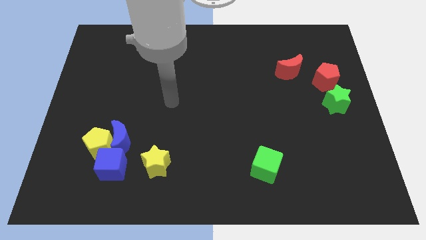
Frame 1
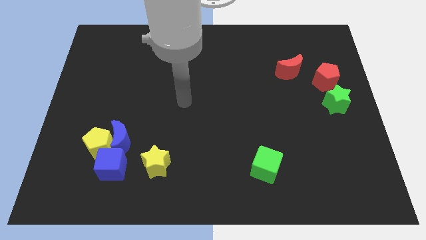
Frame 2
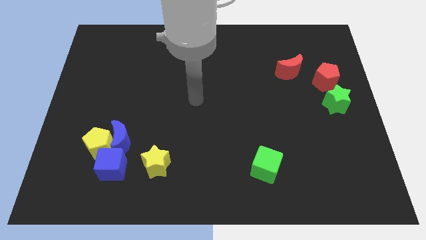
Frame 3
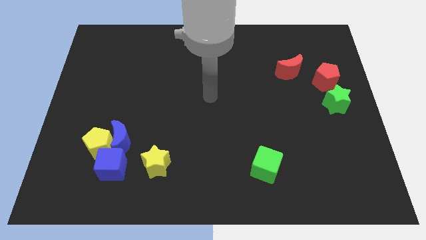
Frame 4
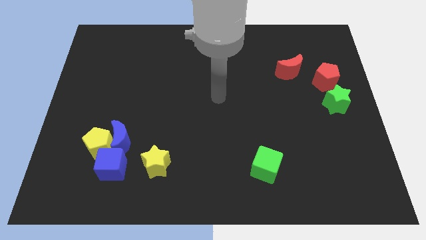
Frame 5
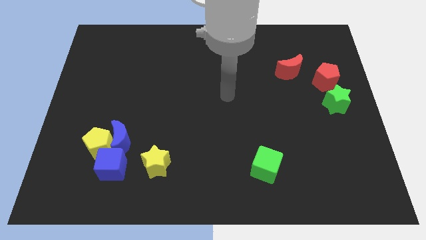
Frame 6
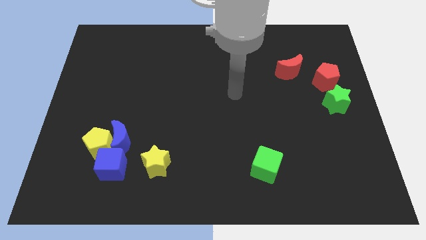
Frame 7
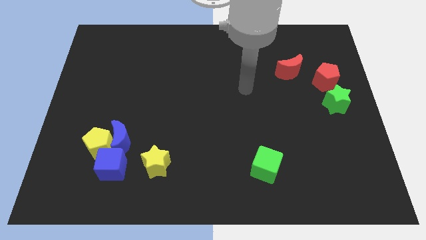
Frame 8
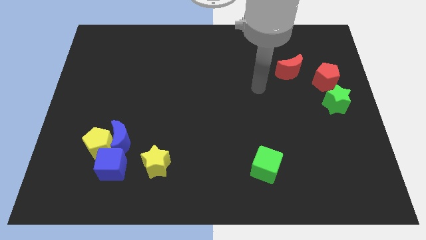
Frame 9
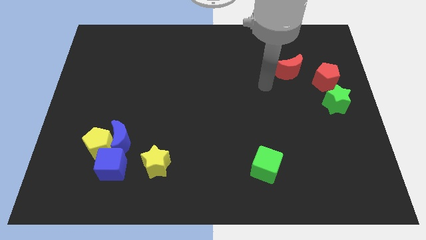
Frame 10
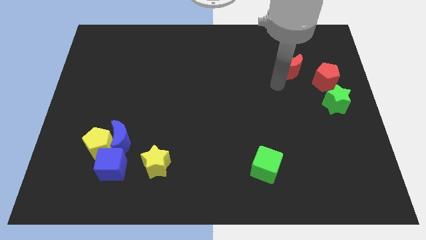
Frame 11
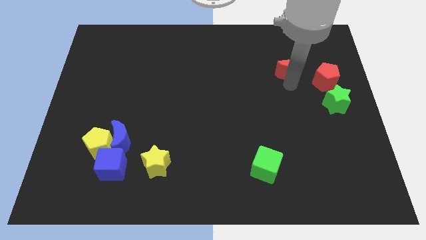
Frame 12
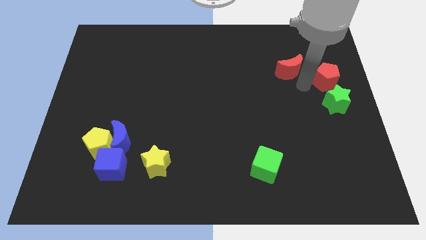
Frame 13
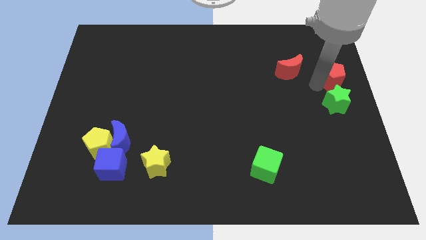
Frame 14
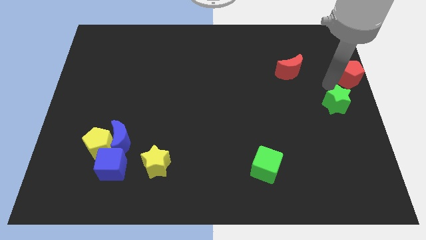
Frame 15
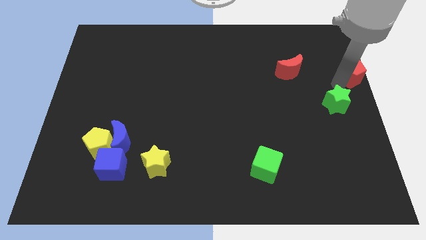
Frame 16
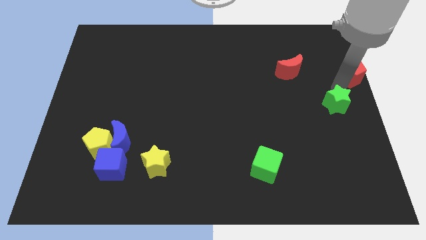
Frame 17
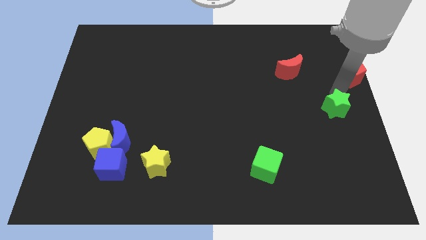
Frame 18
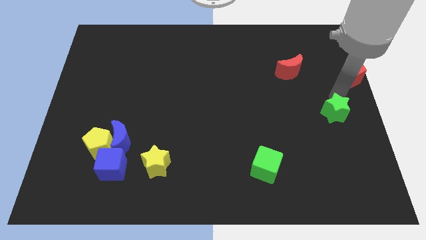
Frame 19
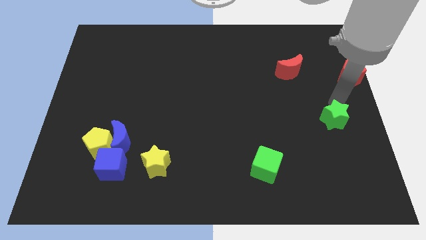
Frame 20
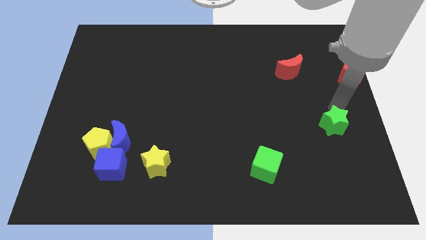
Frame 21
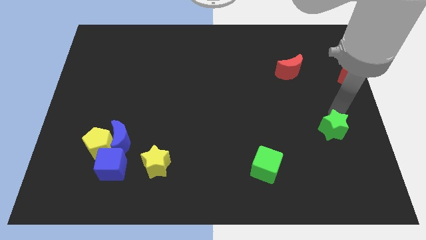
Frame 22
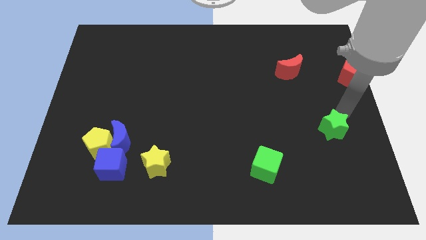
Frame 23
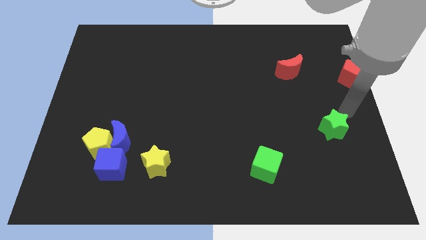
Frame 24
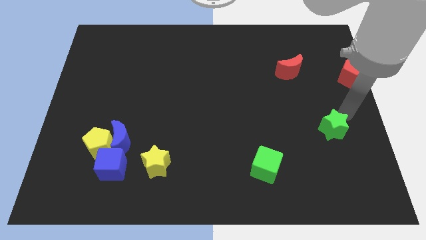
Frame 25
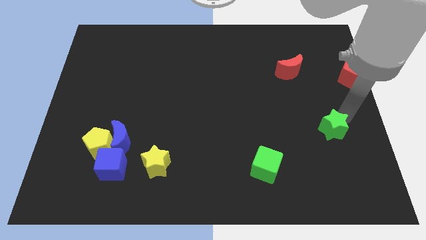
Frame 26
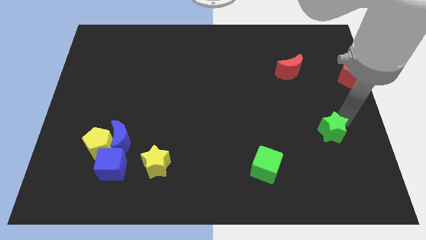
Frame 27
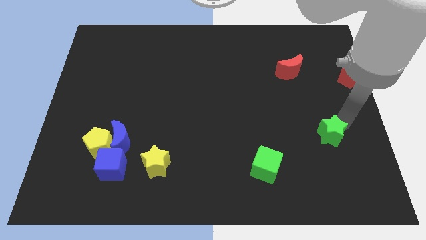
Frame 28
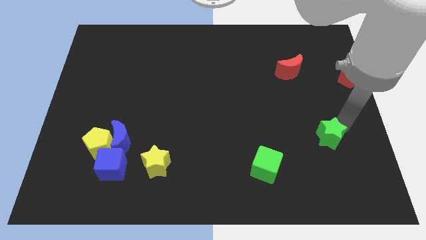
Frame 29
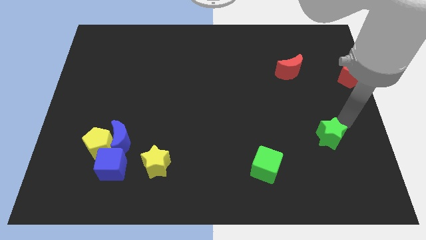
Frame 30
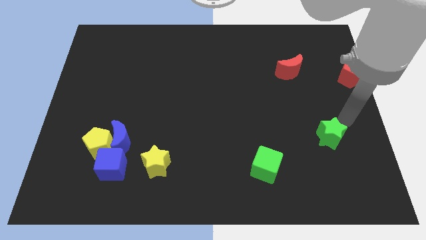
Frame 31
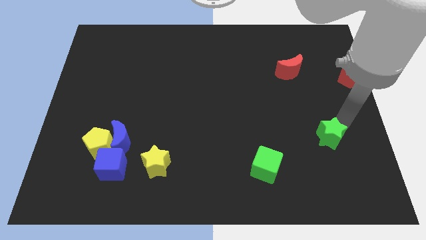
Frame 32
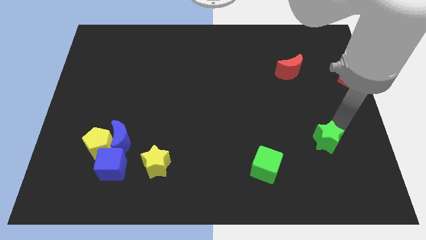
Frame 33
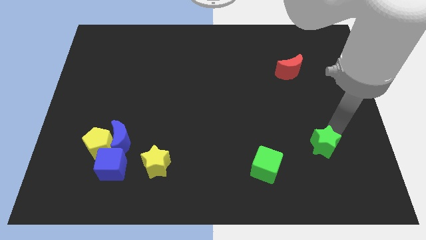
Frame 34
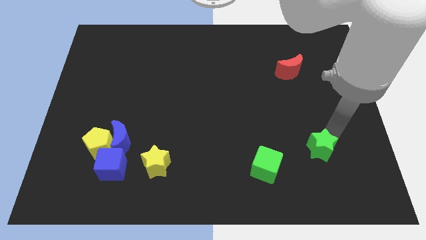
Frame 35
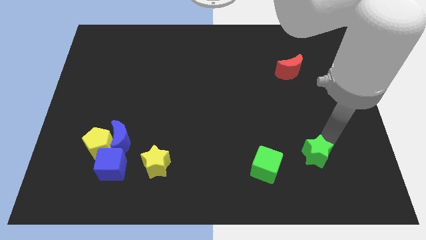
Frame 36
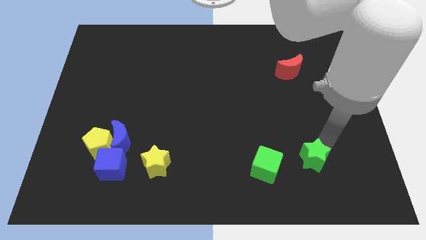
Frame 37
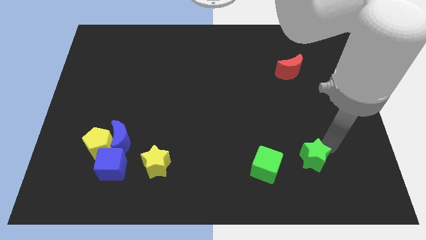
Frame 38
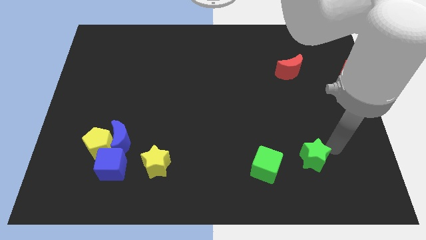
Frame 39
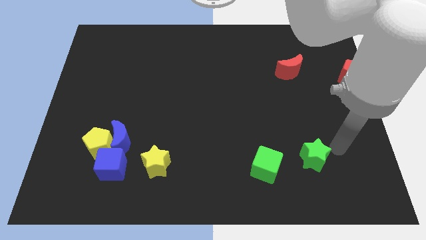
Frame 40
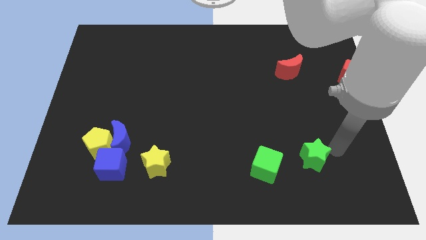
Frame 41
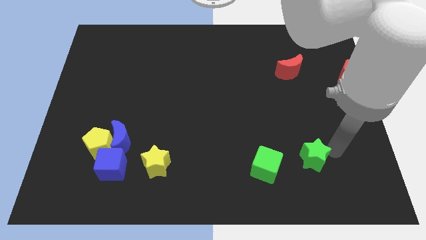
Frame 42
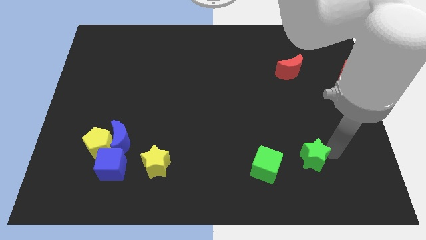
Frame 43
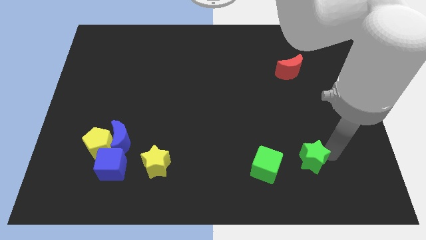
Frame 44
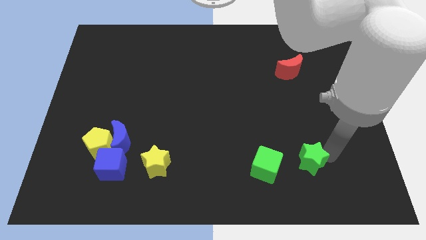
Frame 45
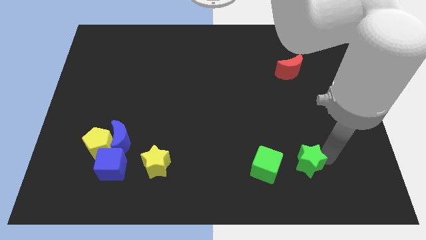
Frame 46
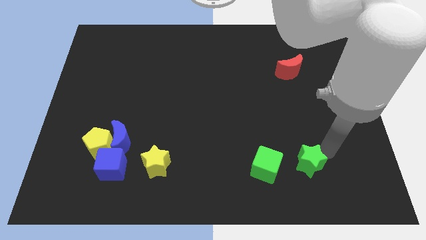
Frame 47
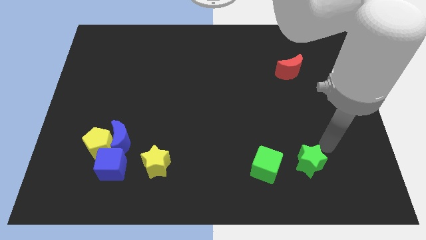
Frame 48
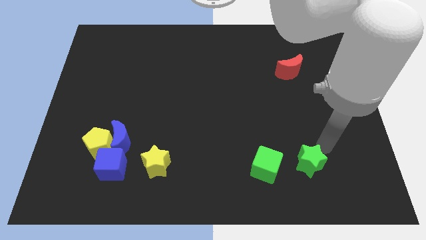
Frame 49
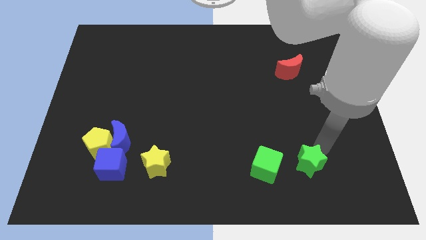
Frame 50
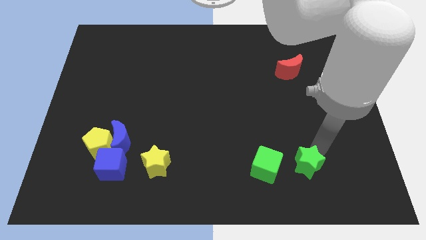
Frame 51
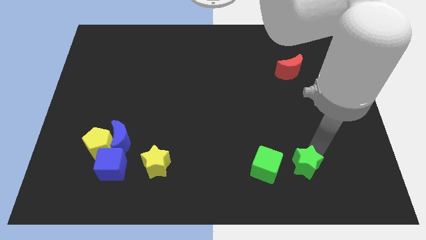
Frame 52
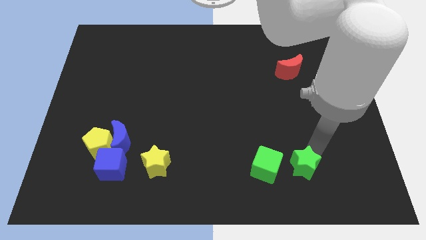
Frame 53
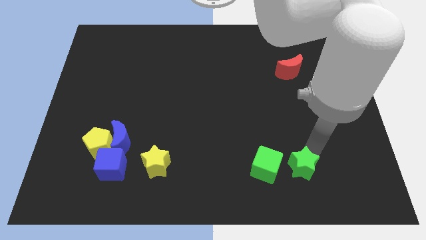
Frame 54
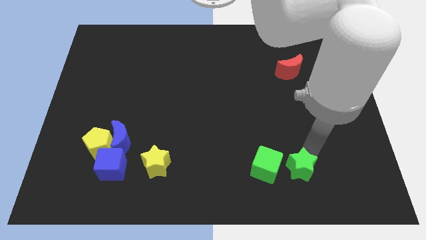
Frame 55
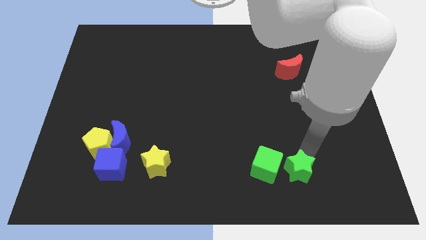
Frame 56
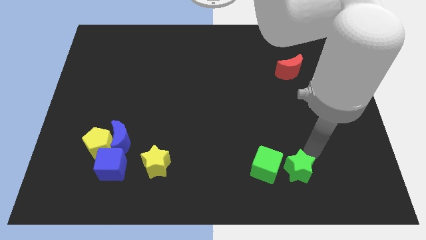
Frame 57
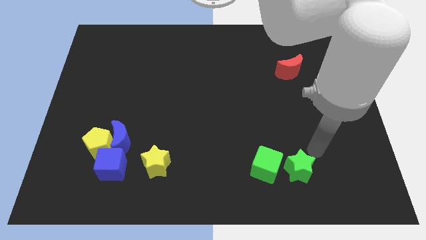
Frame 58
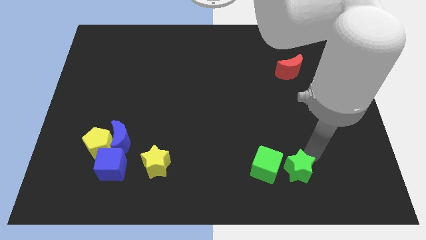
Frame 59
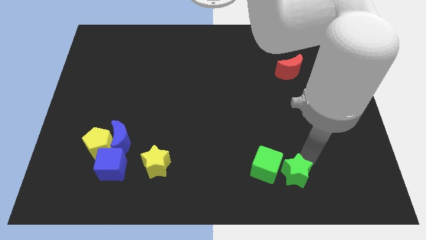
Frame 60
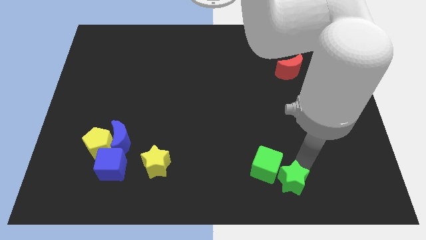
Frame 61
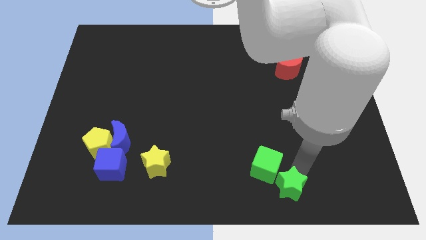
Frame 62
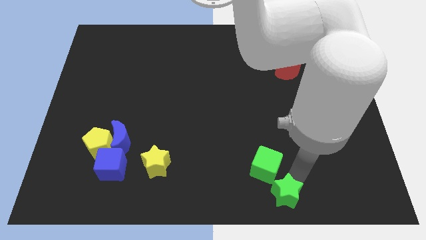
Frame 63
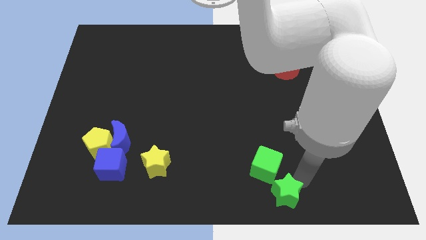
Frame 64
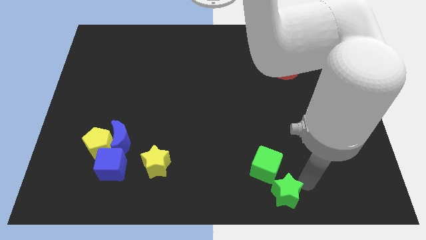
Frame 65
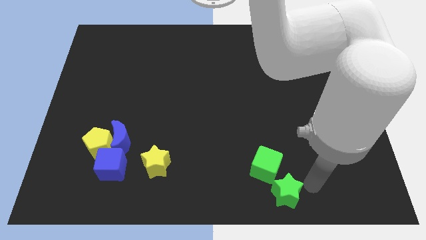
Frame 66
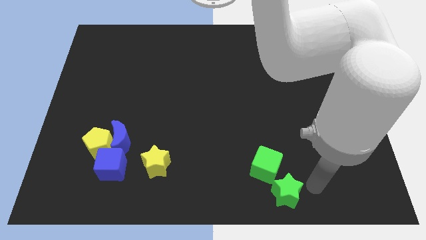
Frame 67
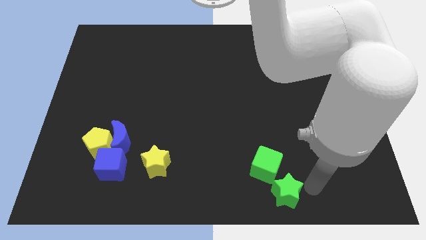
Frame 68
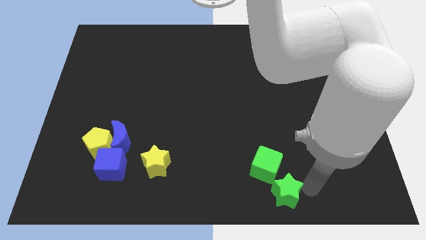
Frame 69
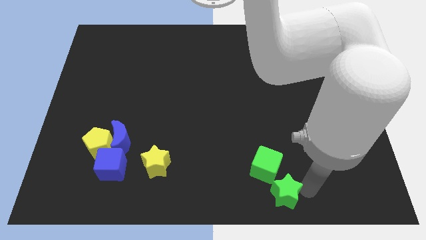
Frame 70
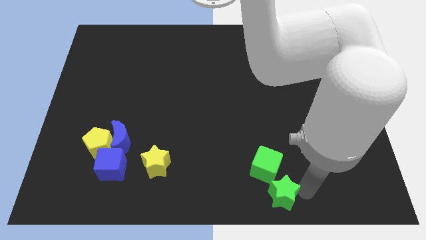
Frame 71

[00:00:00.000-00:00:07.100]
put the green star to the bottom
